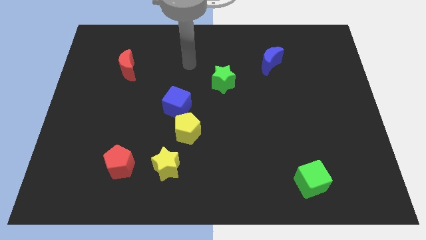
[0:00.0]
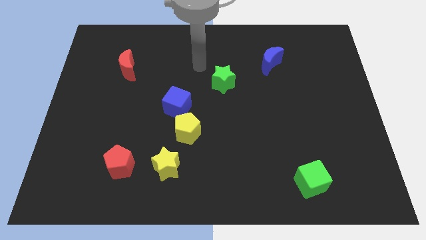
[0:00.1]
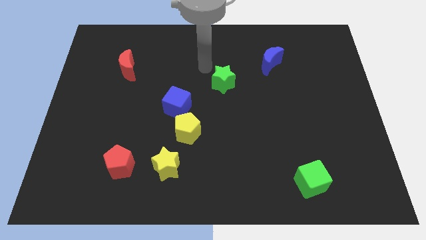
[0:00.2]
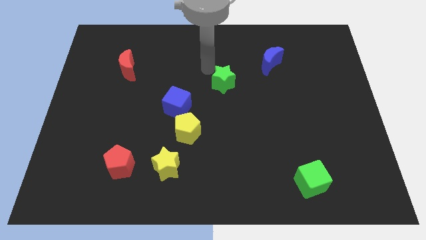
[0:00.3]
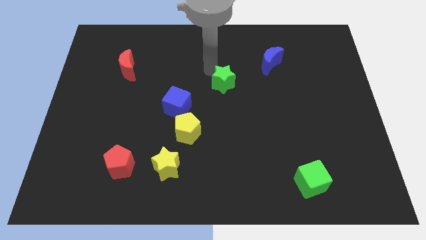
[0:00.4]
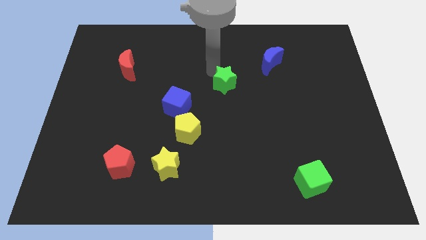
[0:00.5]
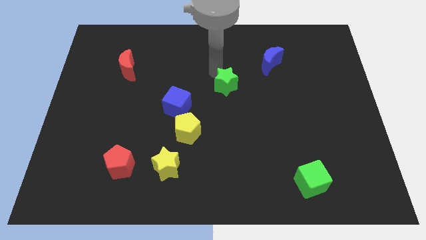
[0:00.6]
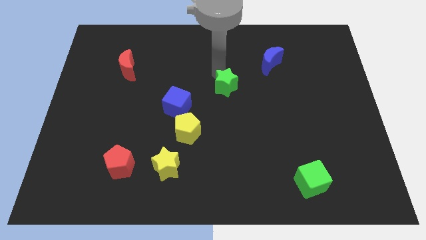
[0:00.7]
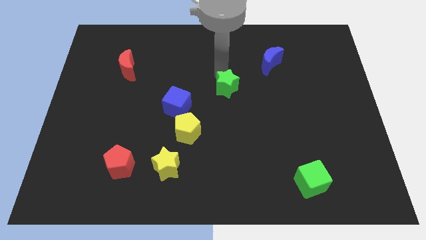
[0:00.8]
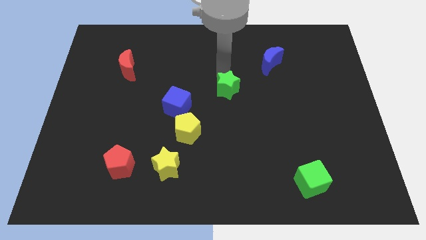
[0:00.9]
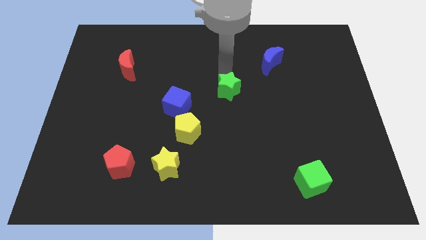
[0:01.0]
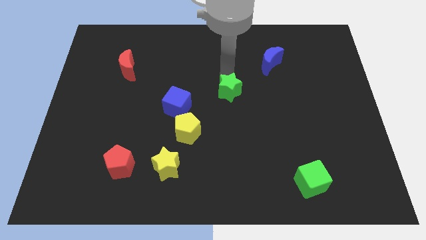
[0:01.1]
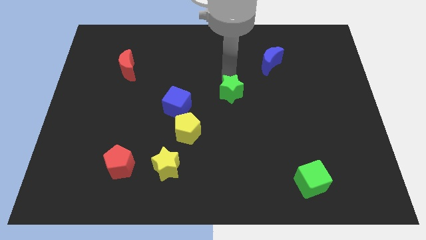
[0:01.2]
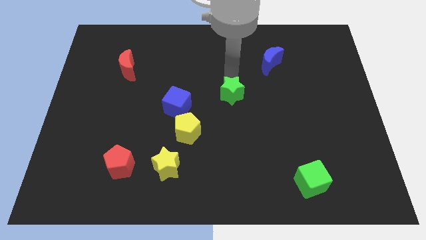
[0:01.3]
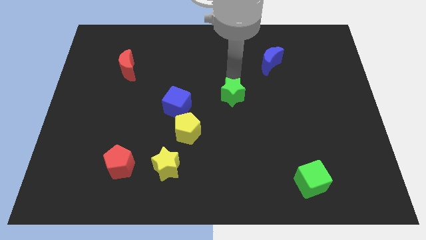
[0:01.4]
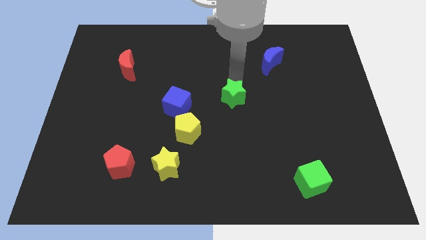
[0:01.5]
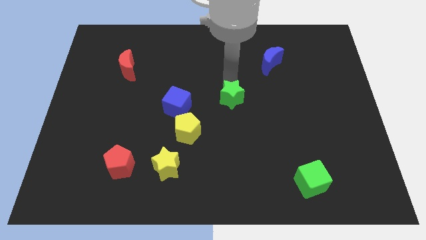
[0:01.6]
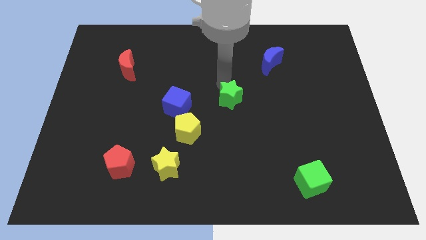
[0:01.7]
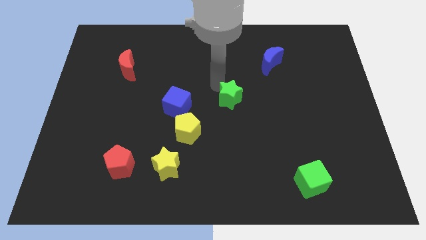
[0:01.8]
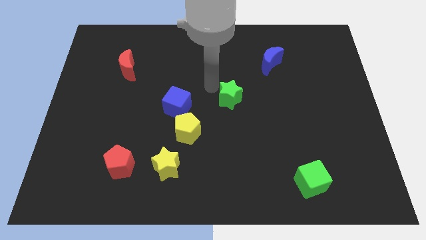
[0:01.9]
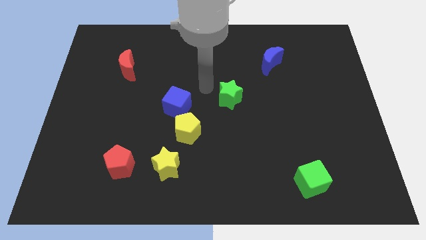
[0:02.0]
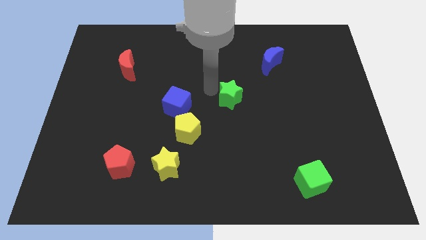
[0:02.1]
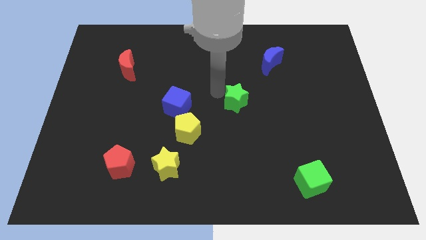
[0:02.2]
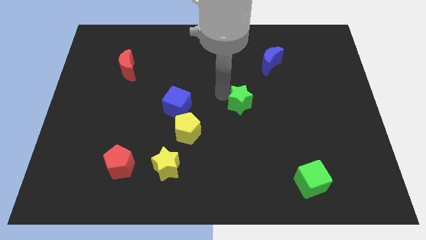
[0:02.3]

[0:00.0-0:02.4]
slightly move the green star downwards and right

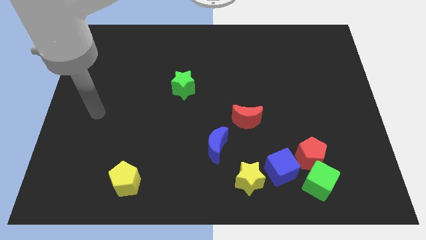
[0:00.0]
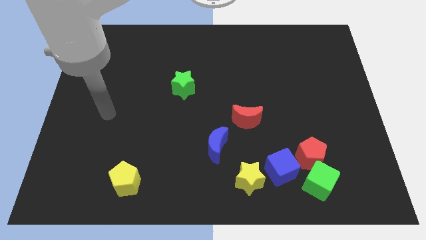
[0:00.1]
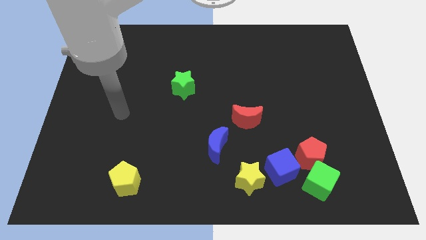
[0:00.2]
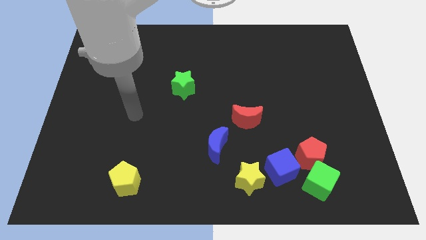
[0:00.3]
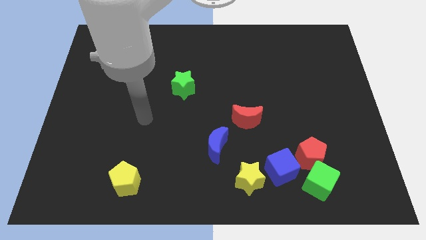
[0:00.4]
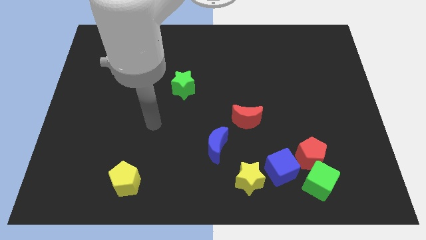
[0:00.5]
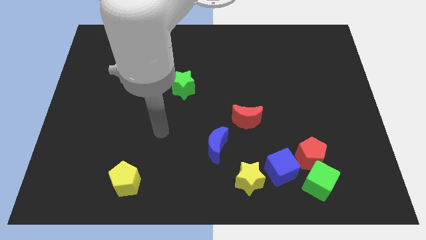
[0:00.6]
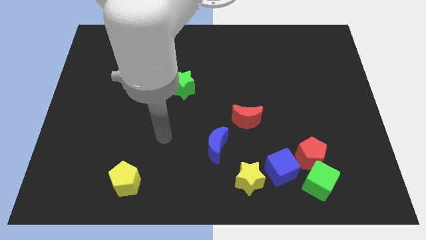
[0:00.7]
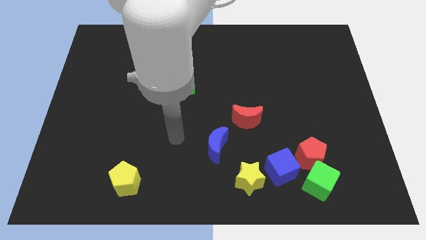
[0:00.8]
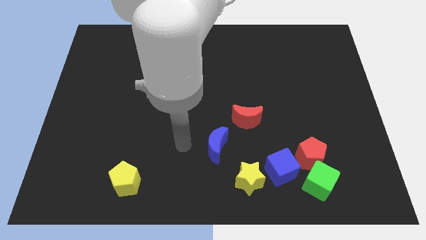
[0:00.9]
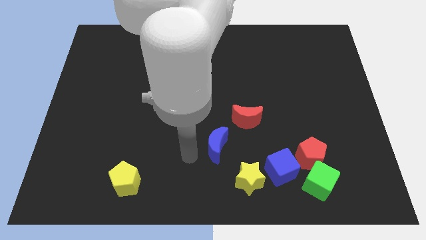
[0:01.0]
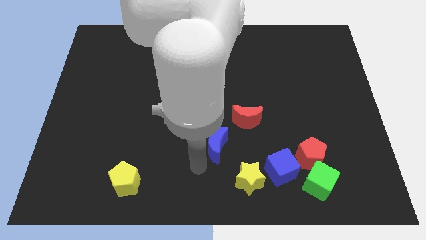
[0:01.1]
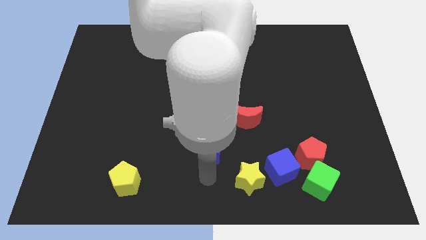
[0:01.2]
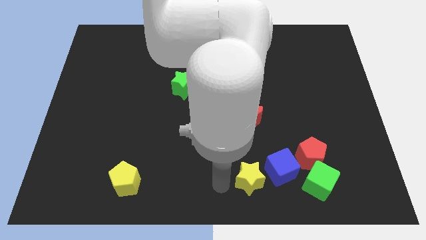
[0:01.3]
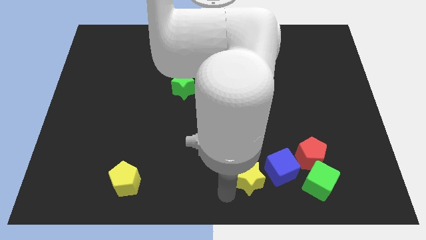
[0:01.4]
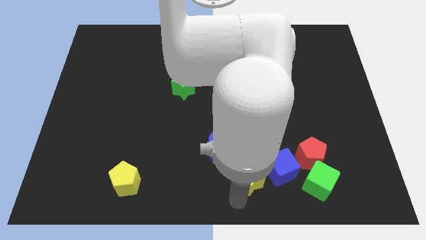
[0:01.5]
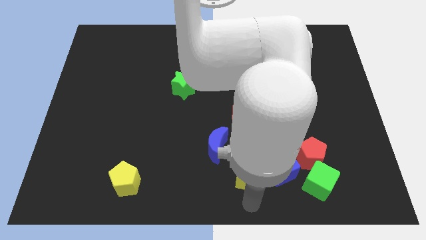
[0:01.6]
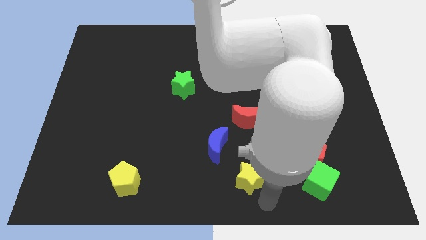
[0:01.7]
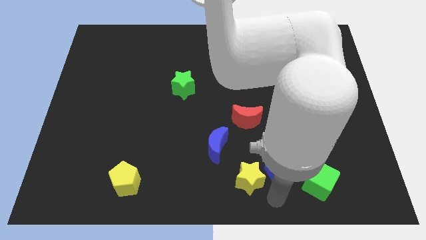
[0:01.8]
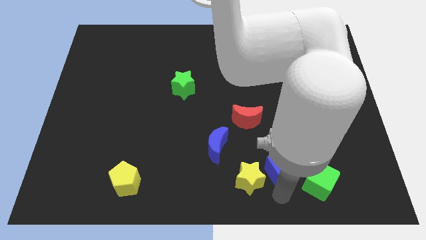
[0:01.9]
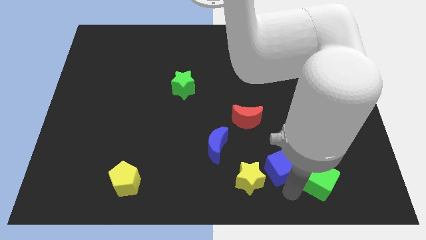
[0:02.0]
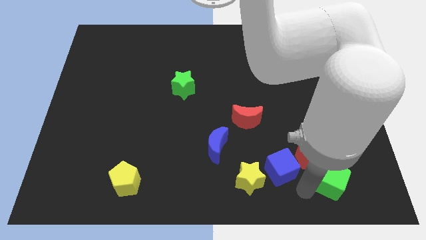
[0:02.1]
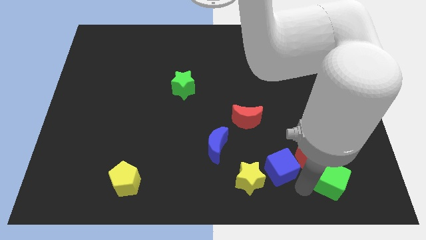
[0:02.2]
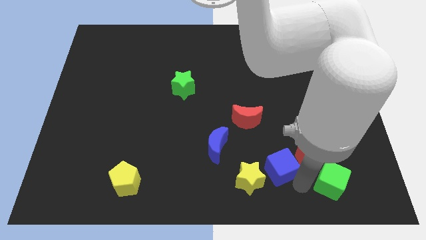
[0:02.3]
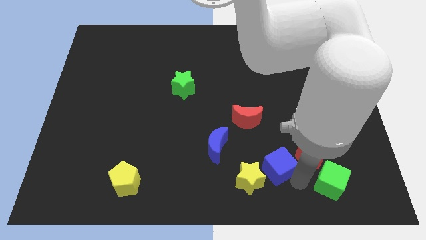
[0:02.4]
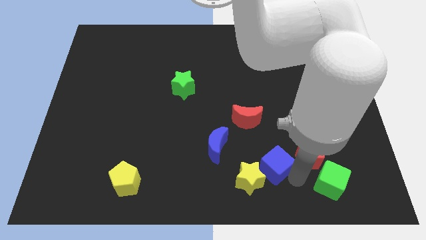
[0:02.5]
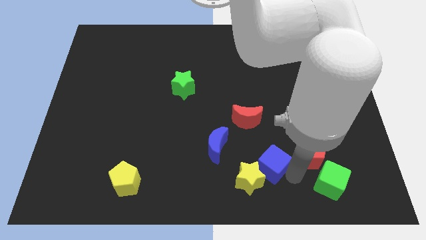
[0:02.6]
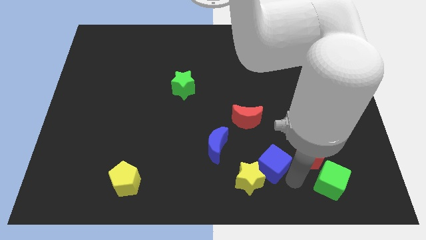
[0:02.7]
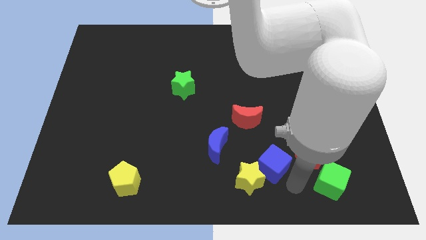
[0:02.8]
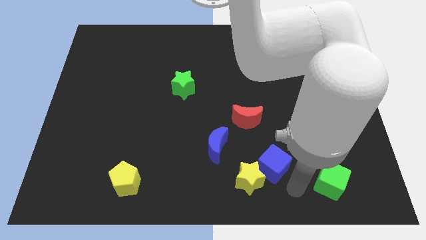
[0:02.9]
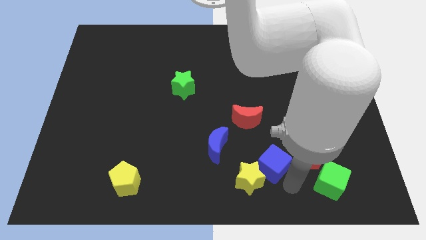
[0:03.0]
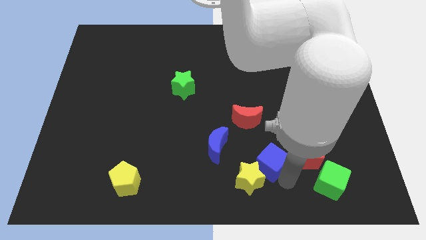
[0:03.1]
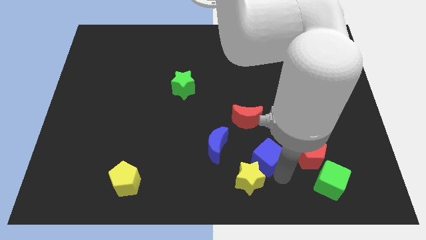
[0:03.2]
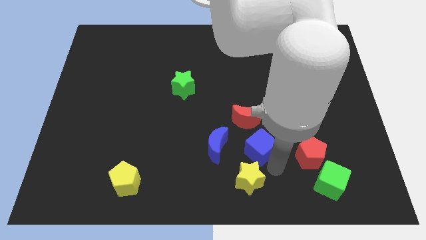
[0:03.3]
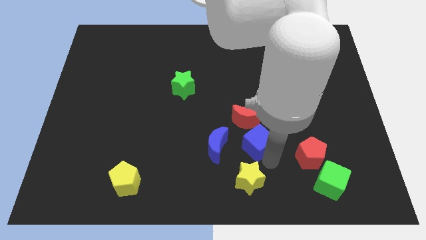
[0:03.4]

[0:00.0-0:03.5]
push the blue cube a bit up and to the left

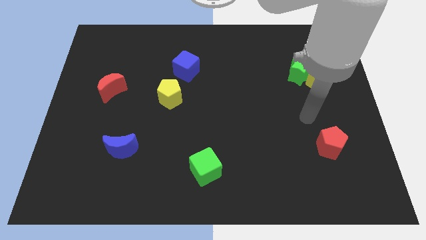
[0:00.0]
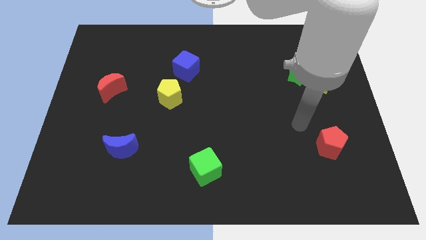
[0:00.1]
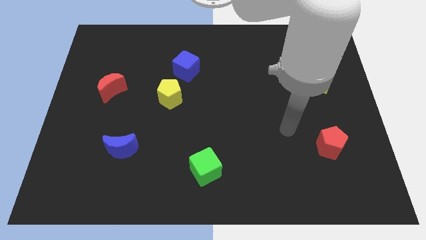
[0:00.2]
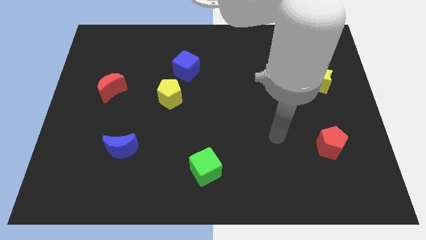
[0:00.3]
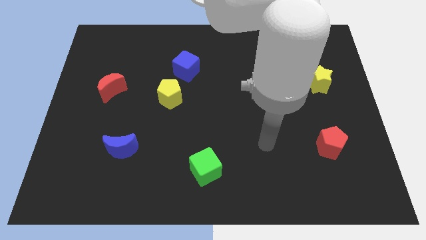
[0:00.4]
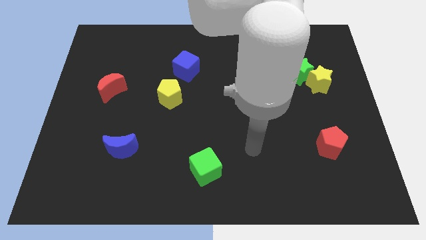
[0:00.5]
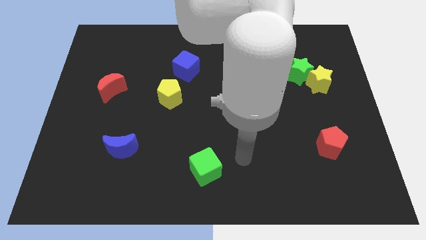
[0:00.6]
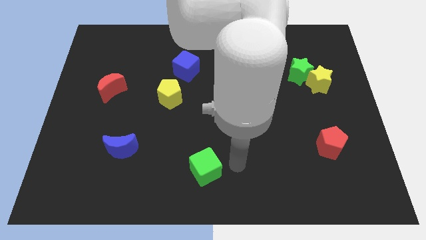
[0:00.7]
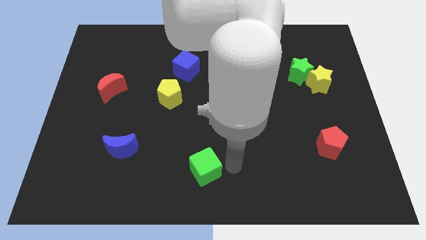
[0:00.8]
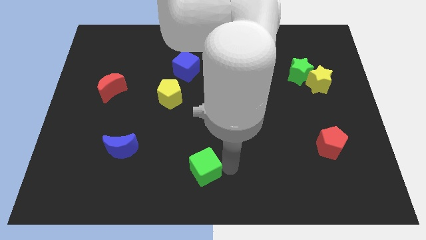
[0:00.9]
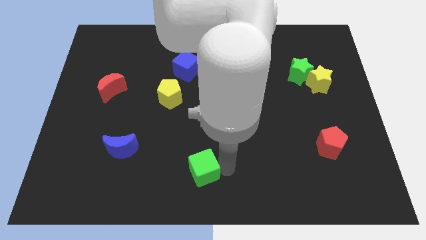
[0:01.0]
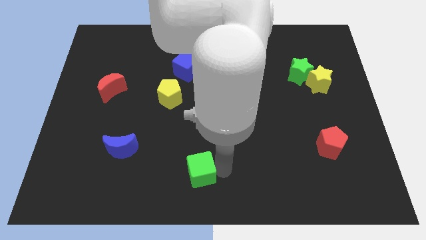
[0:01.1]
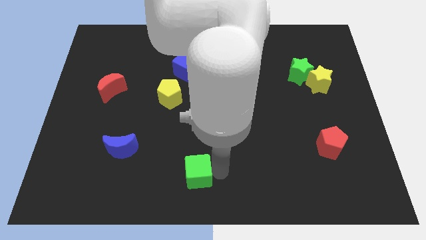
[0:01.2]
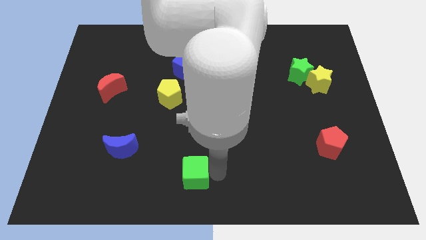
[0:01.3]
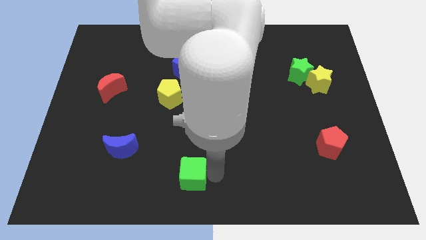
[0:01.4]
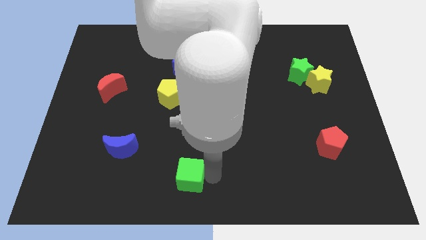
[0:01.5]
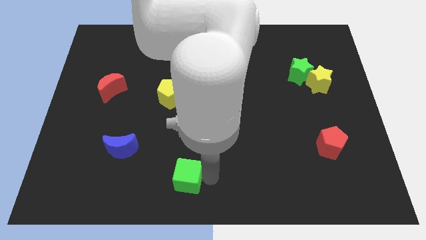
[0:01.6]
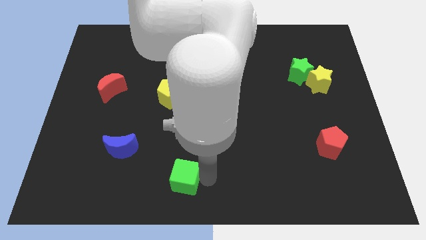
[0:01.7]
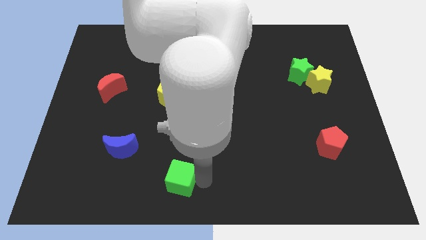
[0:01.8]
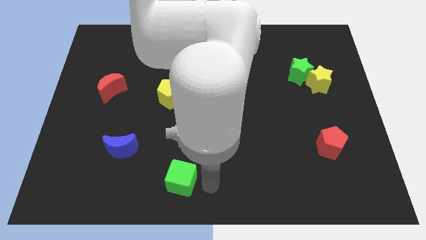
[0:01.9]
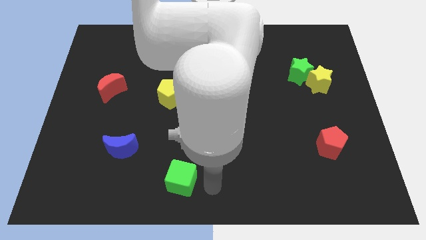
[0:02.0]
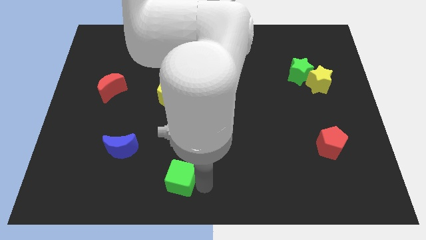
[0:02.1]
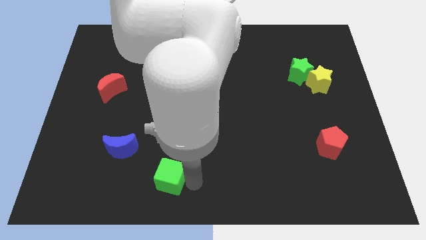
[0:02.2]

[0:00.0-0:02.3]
slightly slide the green cube to the left
